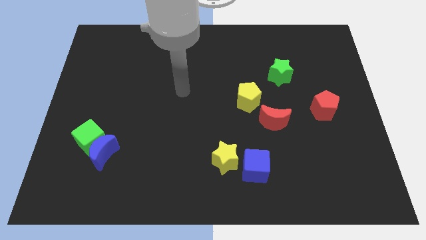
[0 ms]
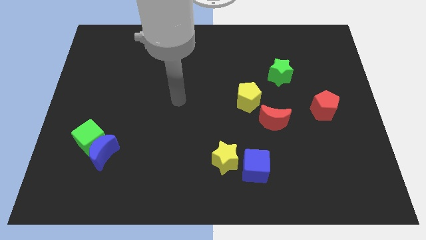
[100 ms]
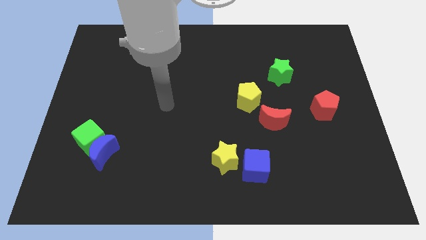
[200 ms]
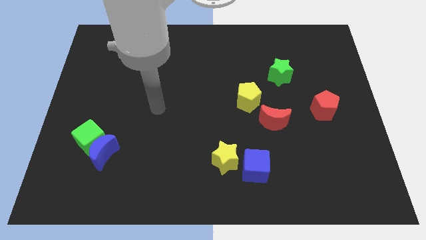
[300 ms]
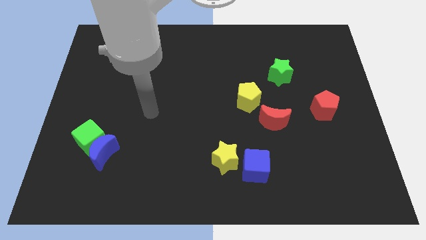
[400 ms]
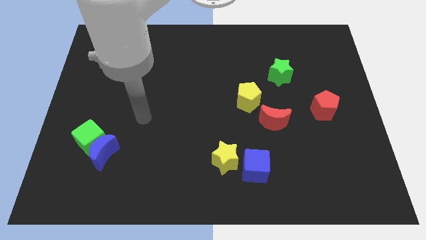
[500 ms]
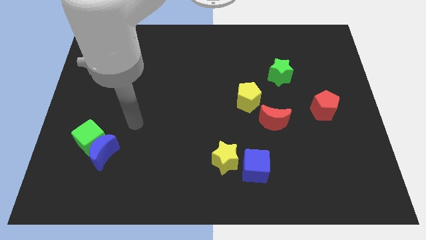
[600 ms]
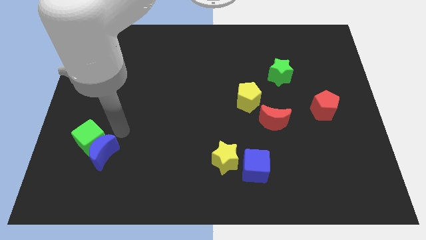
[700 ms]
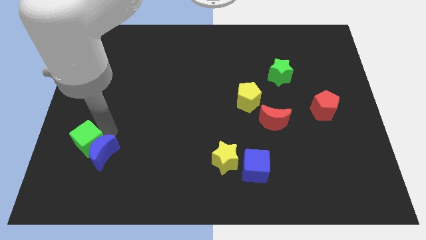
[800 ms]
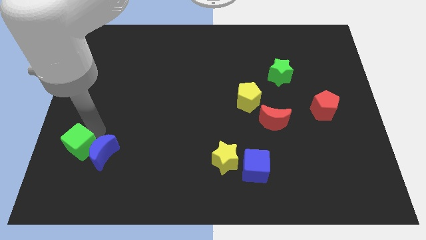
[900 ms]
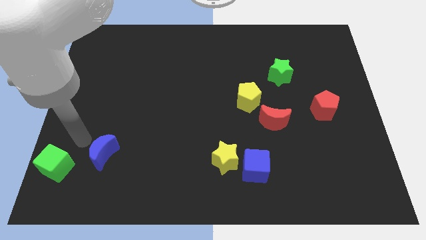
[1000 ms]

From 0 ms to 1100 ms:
separate the blue moon from the green cube

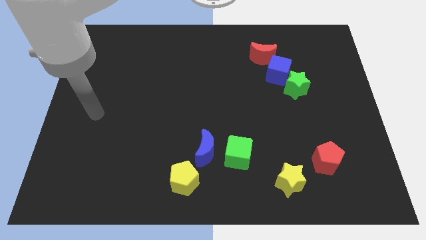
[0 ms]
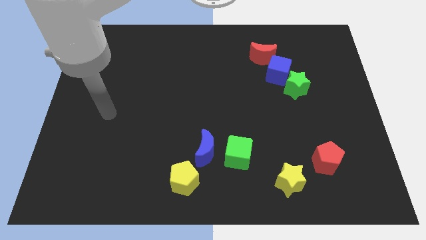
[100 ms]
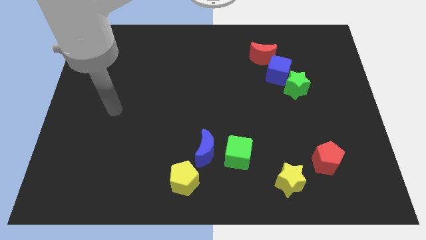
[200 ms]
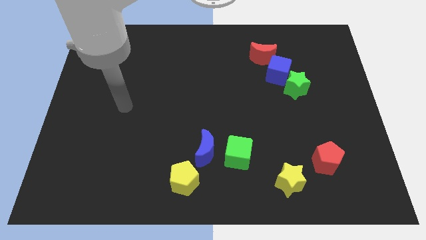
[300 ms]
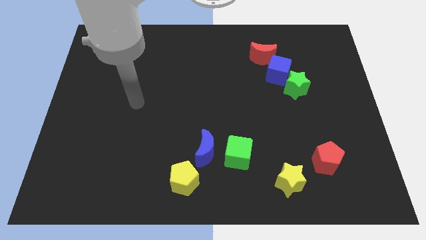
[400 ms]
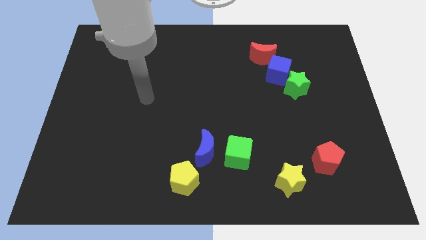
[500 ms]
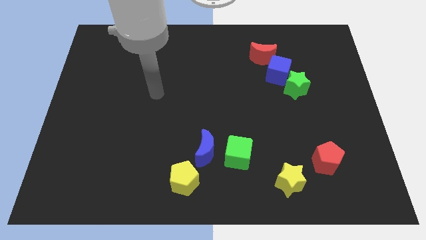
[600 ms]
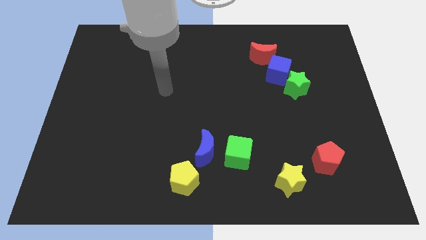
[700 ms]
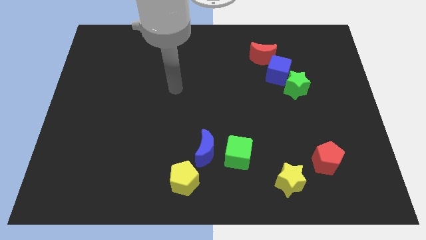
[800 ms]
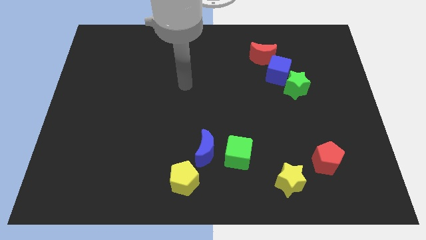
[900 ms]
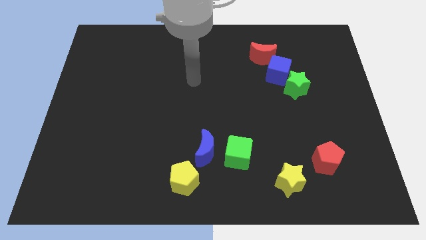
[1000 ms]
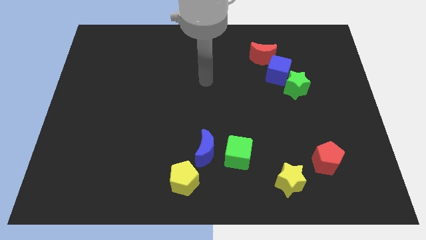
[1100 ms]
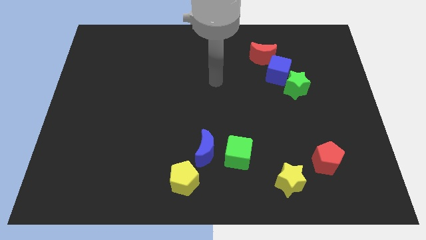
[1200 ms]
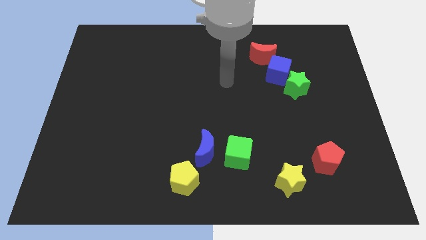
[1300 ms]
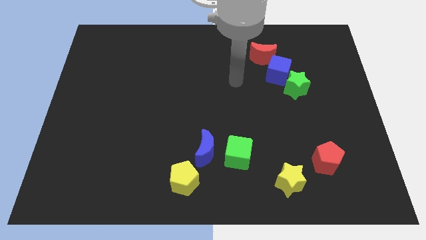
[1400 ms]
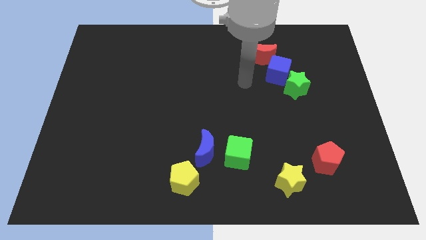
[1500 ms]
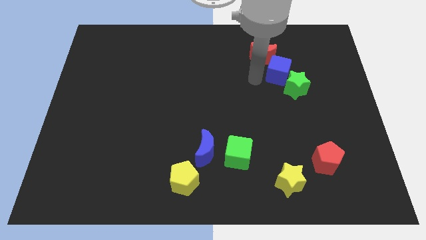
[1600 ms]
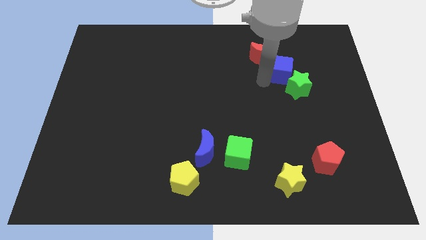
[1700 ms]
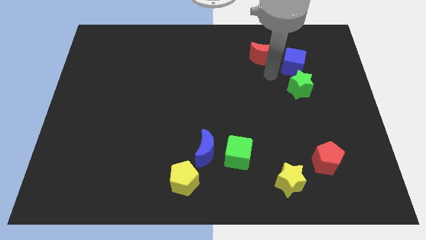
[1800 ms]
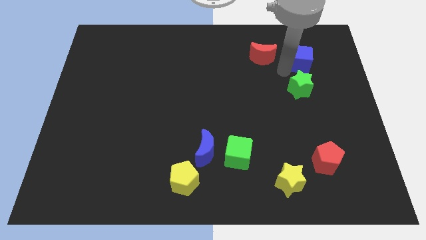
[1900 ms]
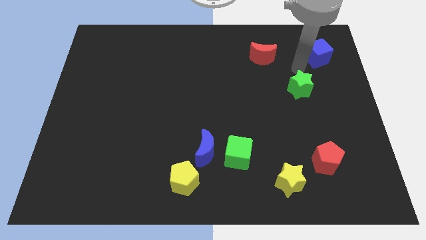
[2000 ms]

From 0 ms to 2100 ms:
pull the green star apart from the blue cube

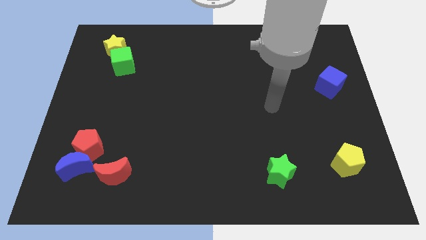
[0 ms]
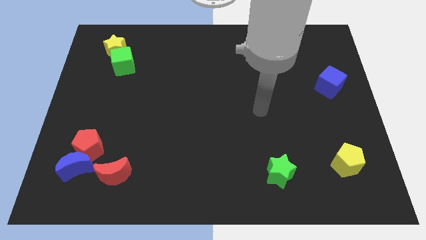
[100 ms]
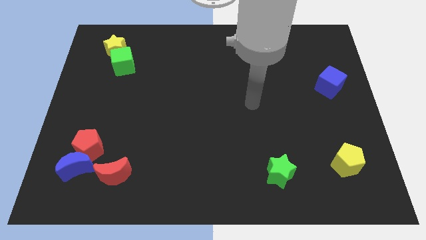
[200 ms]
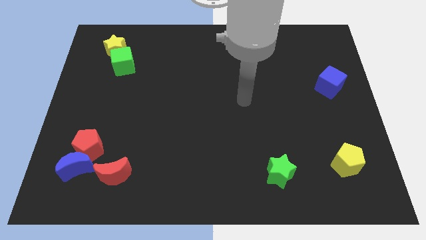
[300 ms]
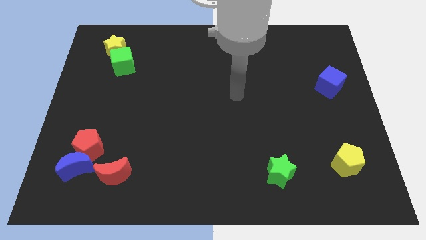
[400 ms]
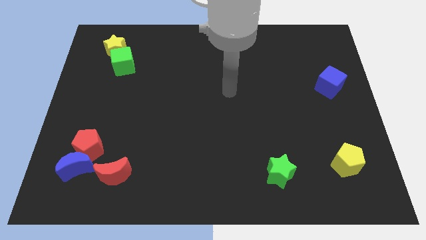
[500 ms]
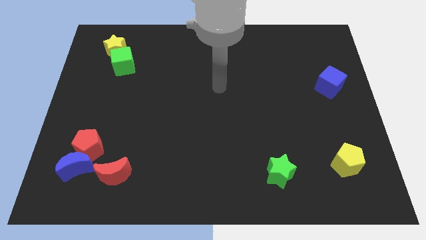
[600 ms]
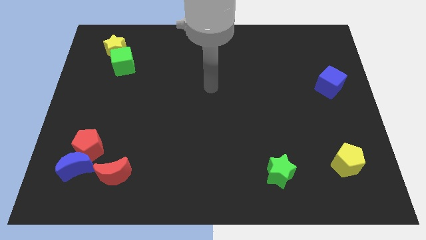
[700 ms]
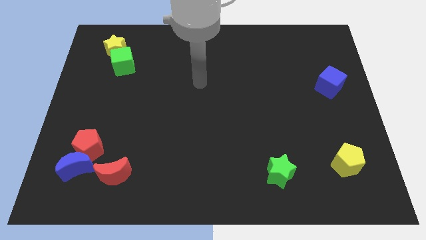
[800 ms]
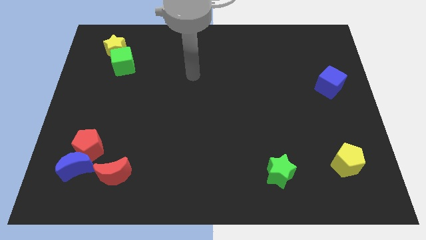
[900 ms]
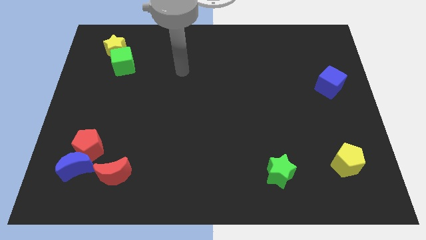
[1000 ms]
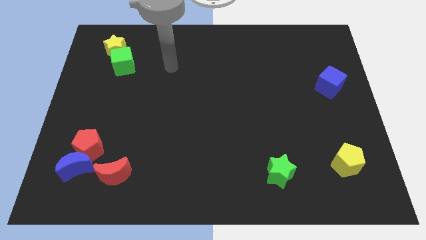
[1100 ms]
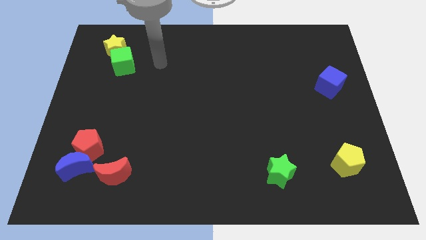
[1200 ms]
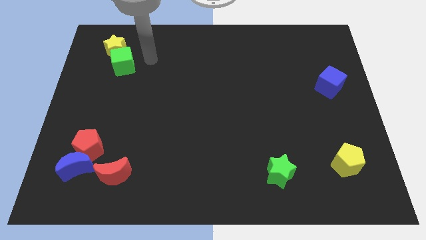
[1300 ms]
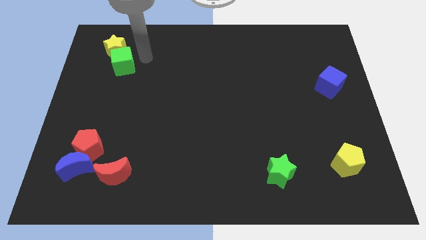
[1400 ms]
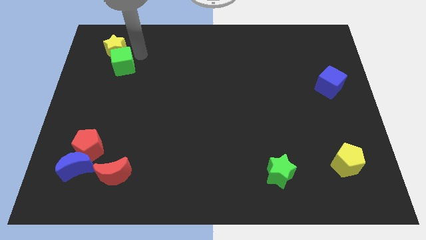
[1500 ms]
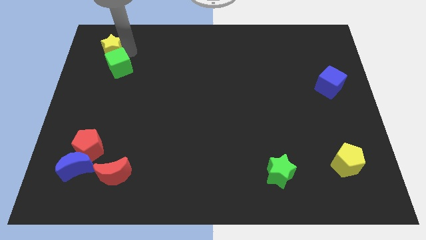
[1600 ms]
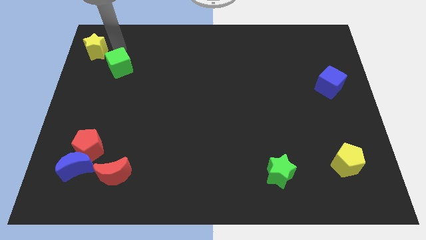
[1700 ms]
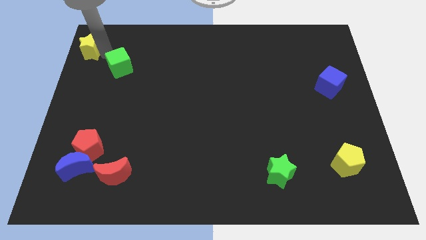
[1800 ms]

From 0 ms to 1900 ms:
move the green cube away from the yellow star

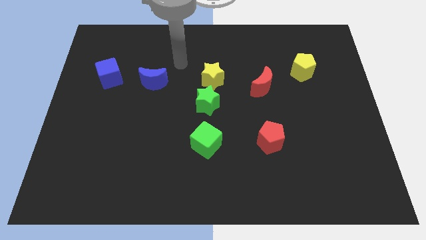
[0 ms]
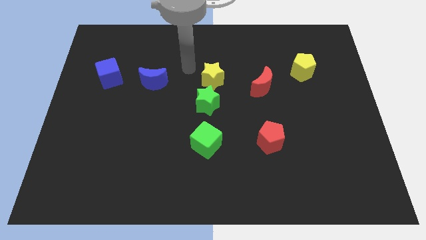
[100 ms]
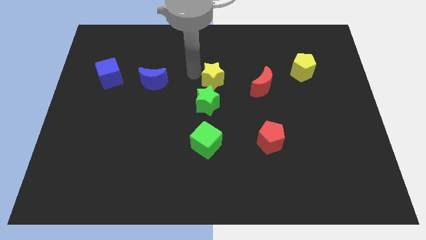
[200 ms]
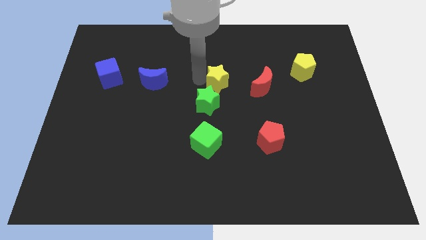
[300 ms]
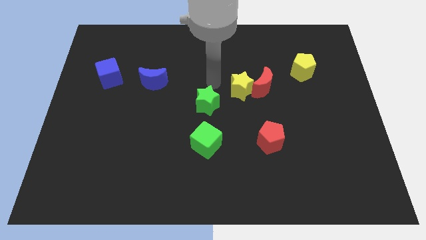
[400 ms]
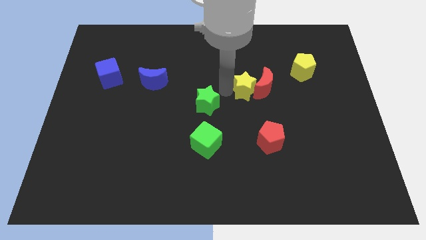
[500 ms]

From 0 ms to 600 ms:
pull the green star apart from the yellow star

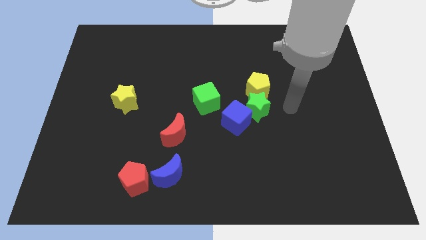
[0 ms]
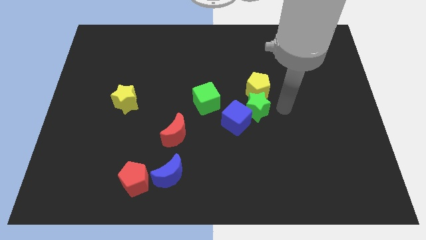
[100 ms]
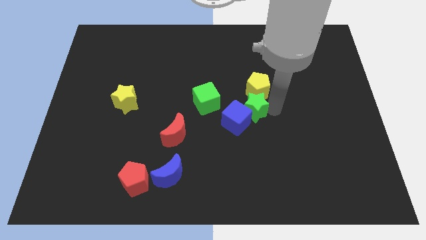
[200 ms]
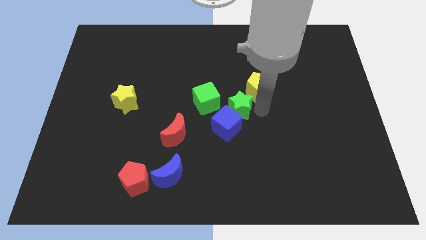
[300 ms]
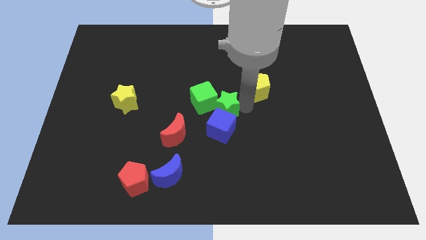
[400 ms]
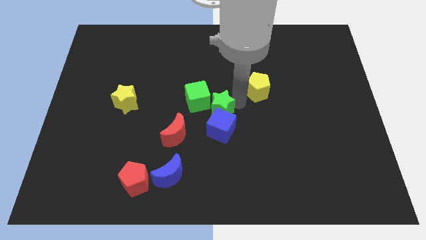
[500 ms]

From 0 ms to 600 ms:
move the yellow pentagon away from the green star

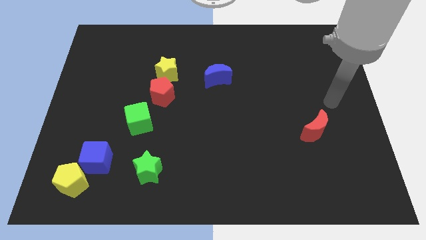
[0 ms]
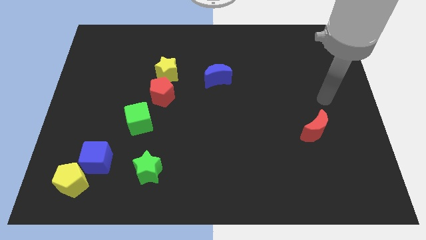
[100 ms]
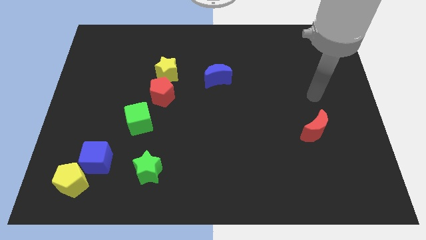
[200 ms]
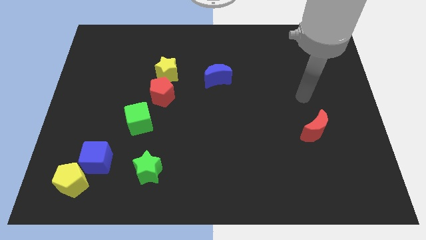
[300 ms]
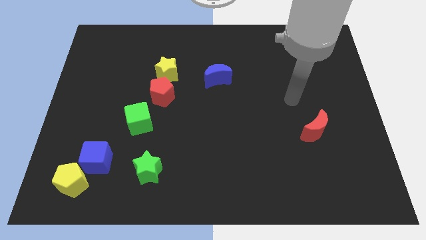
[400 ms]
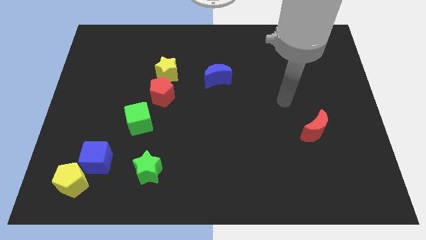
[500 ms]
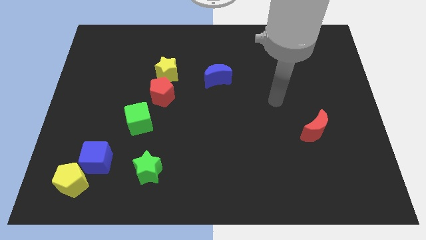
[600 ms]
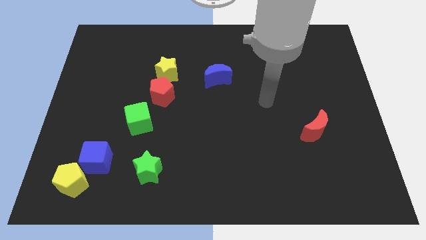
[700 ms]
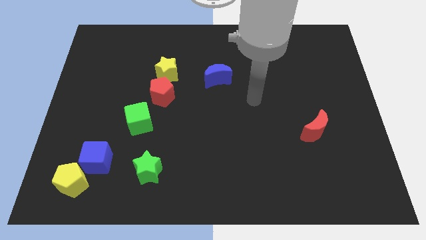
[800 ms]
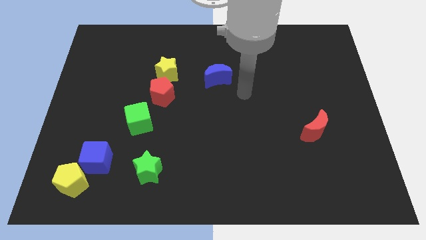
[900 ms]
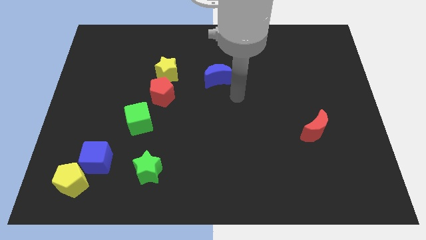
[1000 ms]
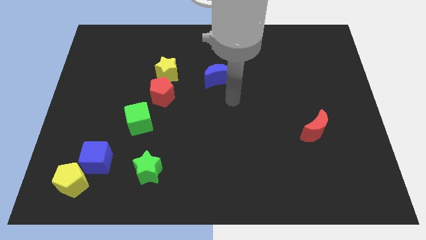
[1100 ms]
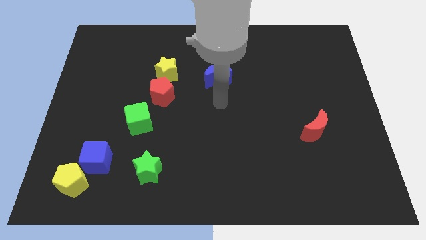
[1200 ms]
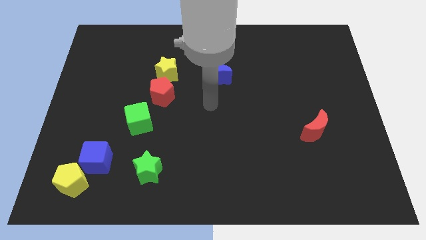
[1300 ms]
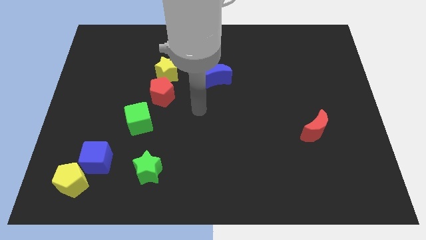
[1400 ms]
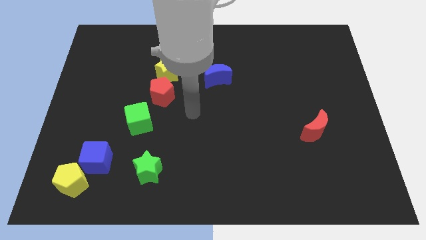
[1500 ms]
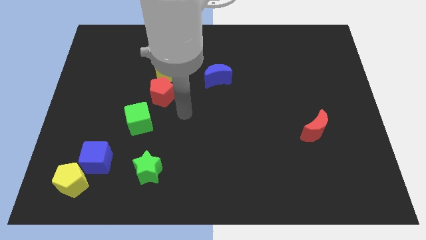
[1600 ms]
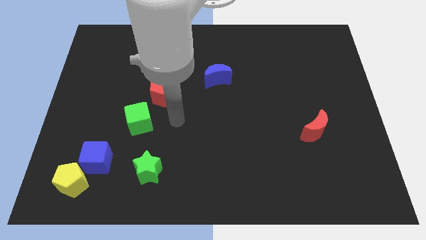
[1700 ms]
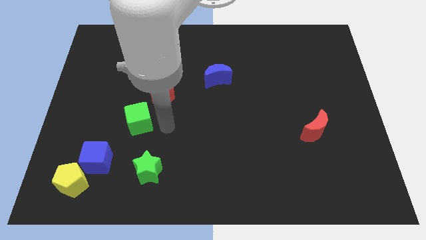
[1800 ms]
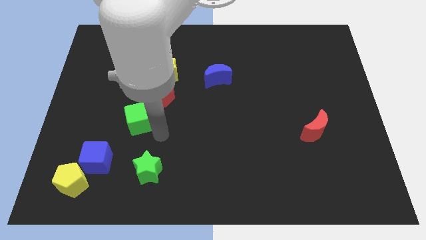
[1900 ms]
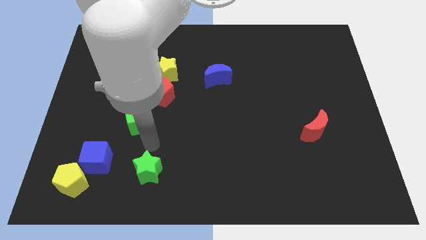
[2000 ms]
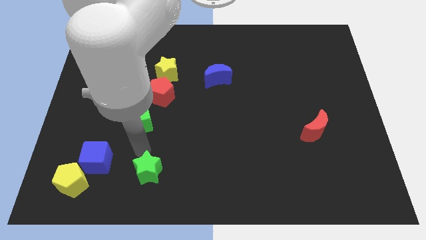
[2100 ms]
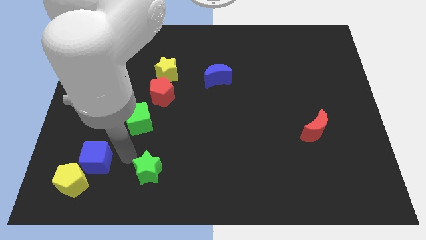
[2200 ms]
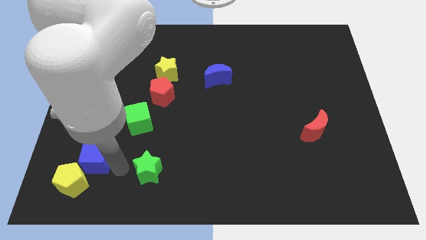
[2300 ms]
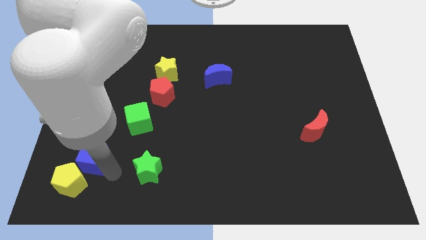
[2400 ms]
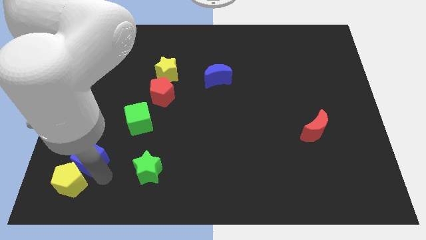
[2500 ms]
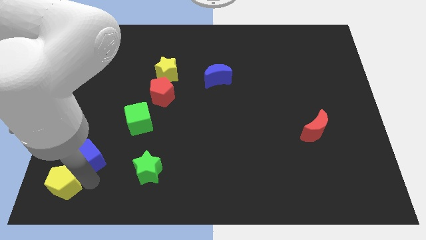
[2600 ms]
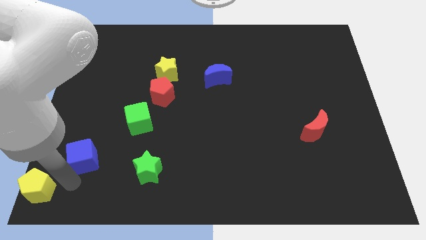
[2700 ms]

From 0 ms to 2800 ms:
separate the blue cube from the yellow pentagon

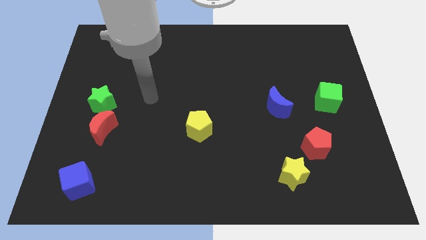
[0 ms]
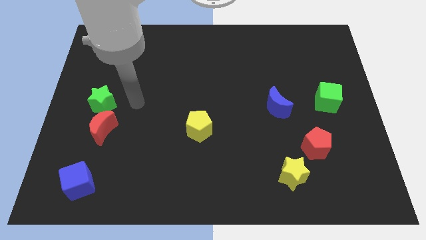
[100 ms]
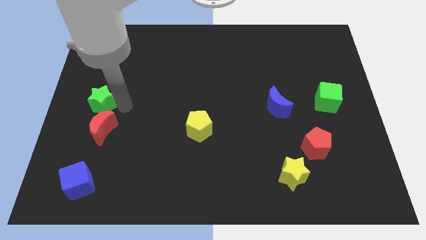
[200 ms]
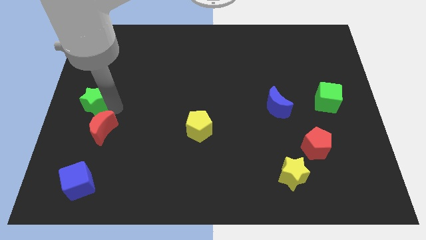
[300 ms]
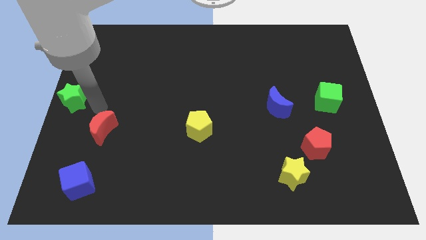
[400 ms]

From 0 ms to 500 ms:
pull the red moon apart from the green star
